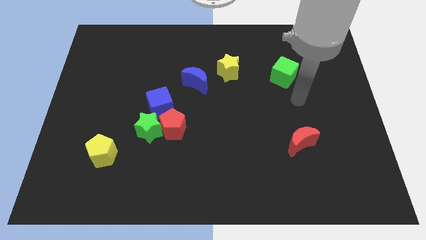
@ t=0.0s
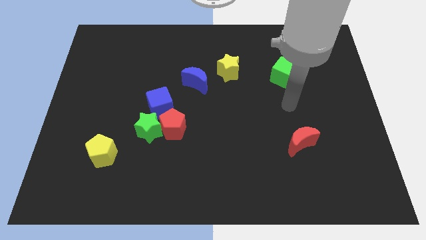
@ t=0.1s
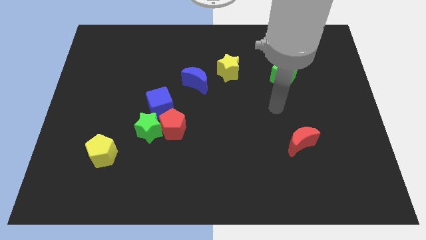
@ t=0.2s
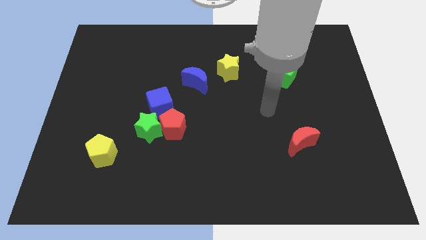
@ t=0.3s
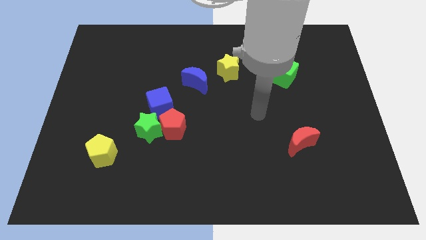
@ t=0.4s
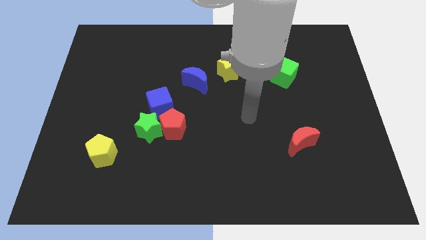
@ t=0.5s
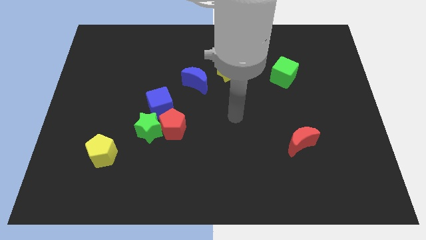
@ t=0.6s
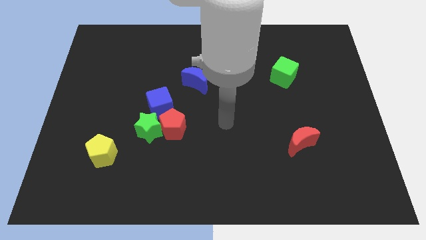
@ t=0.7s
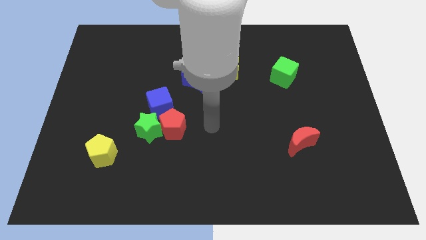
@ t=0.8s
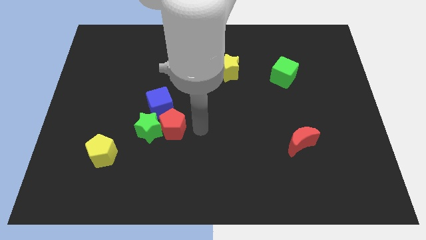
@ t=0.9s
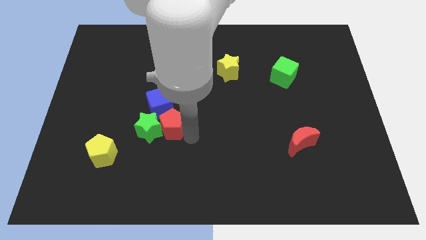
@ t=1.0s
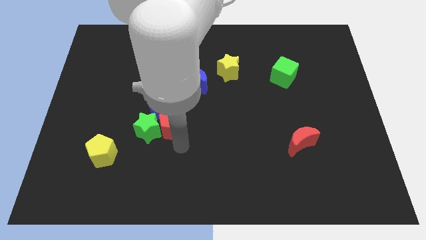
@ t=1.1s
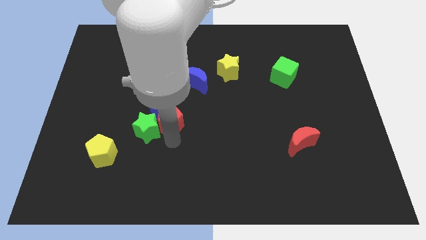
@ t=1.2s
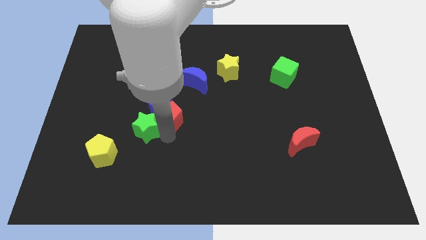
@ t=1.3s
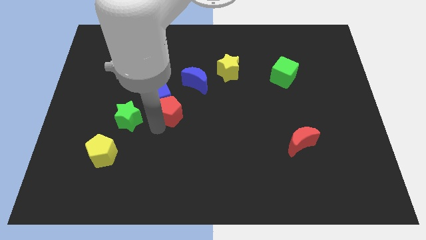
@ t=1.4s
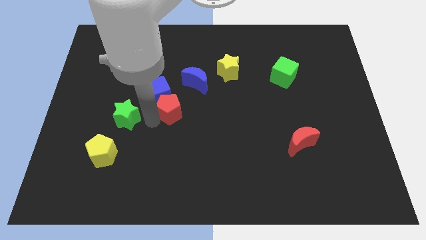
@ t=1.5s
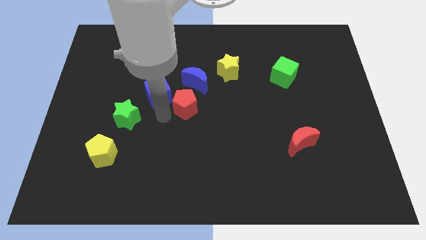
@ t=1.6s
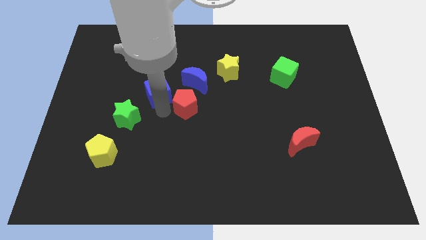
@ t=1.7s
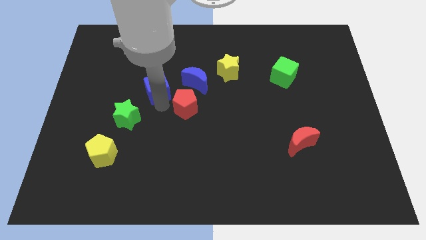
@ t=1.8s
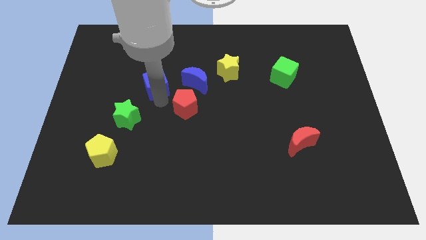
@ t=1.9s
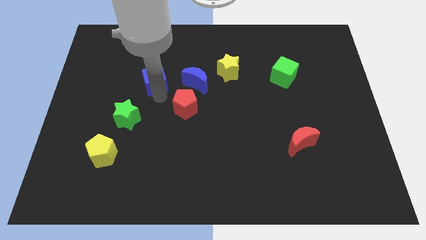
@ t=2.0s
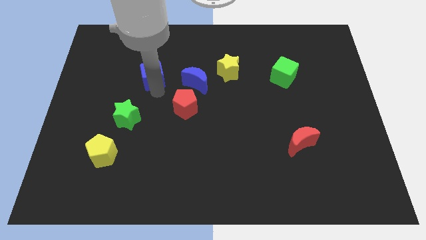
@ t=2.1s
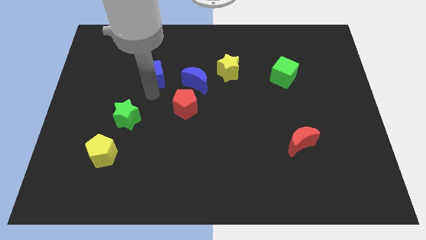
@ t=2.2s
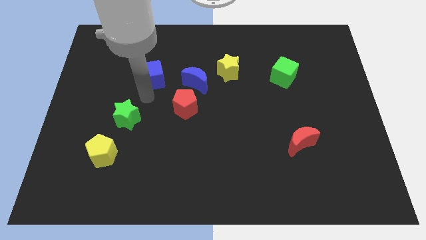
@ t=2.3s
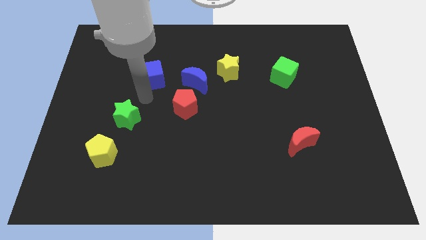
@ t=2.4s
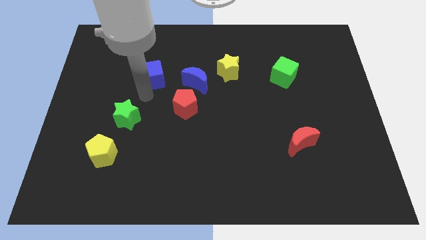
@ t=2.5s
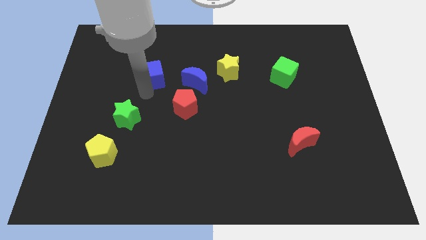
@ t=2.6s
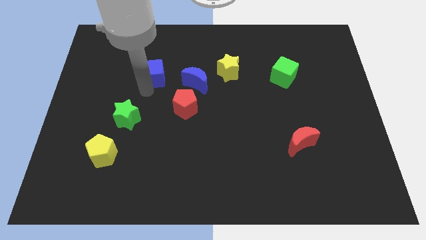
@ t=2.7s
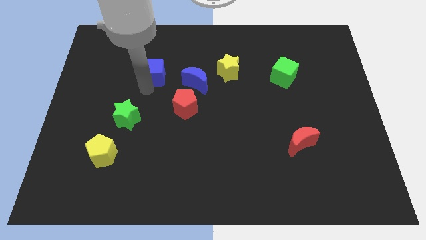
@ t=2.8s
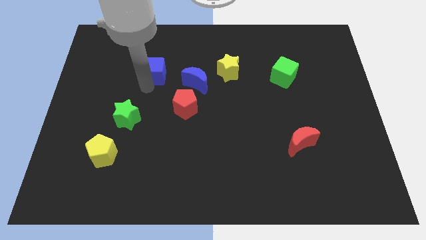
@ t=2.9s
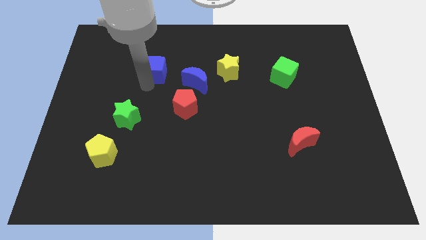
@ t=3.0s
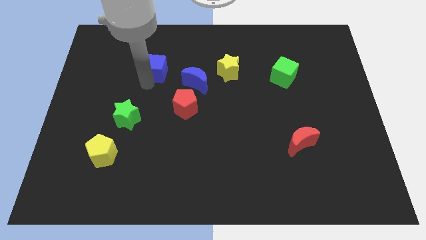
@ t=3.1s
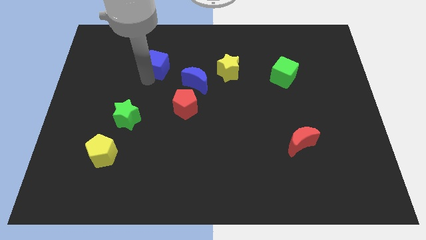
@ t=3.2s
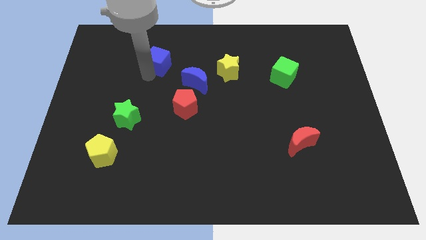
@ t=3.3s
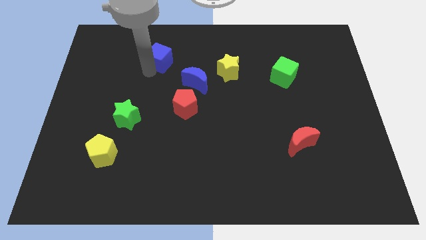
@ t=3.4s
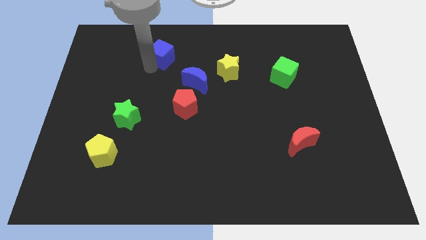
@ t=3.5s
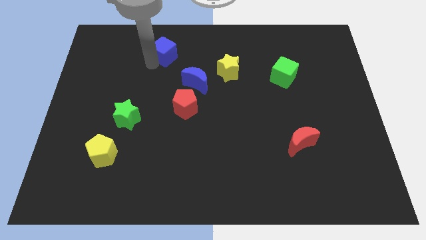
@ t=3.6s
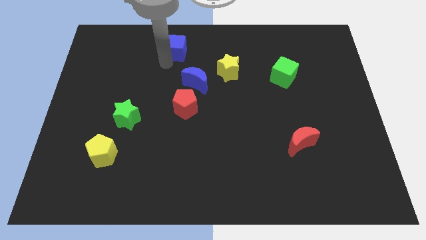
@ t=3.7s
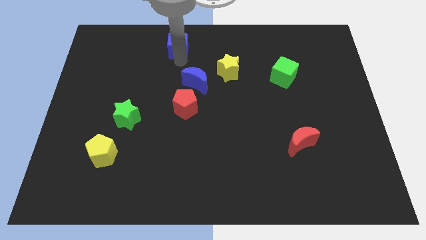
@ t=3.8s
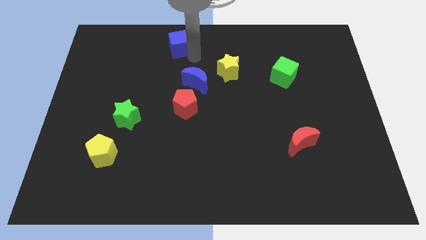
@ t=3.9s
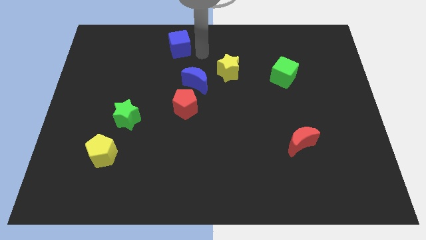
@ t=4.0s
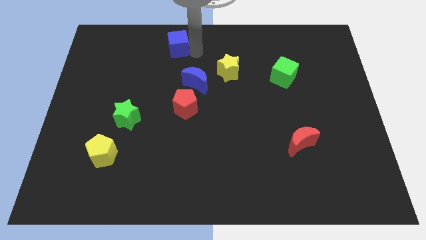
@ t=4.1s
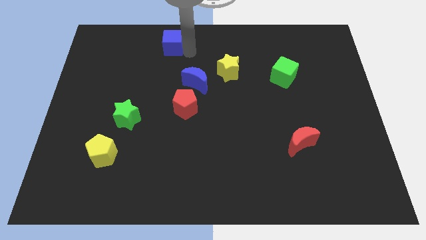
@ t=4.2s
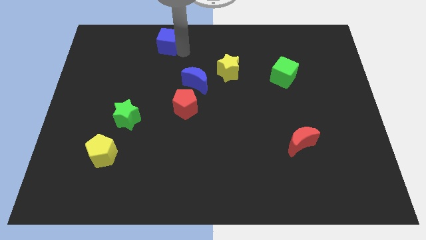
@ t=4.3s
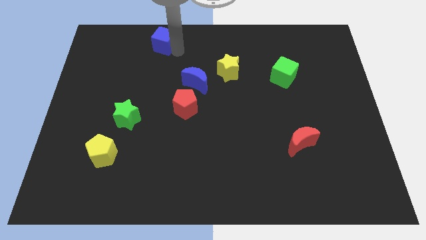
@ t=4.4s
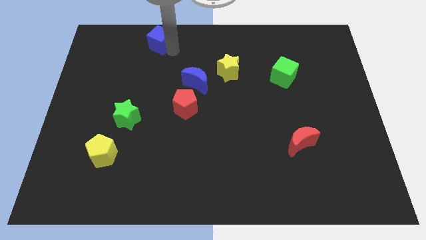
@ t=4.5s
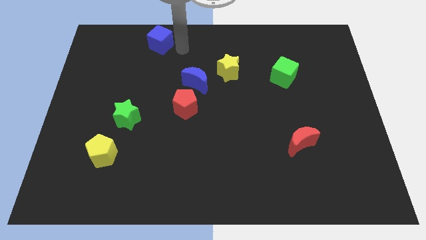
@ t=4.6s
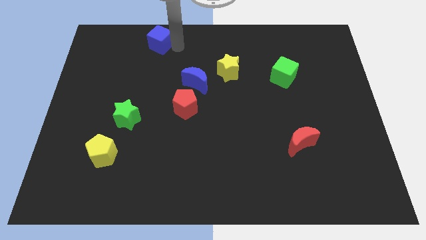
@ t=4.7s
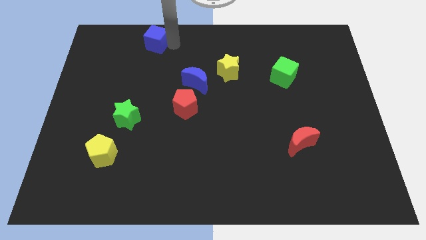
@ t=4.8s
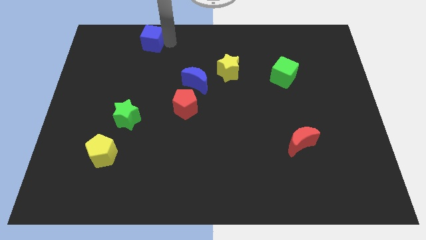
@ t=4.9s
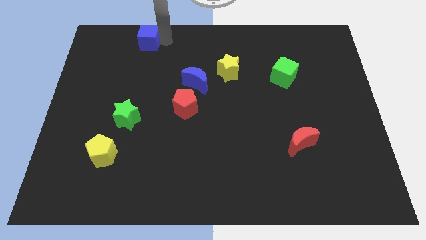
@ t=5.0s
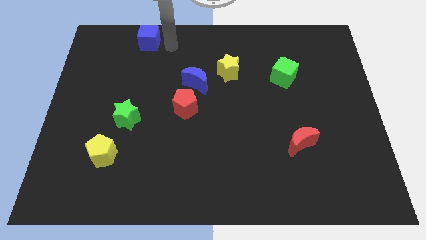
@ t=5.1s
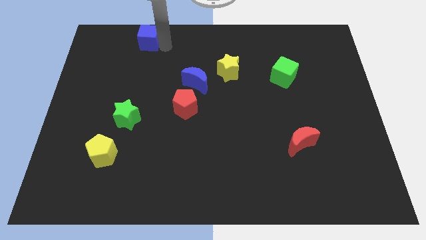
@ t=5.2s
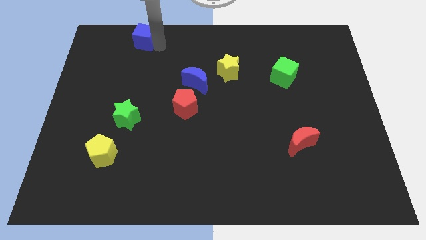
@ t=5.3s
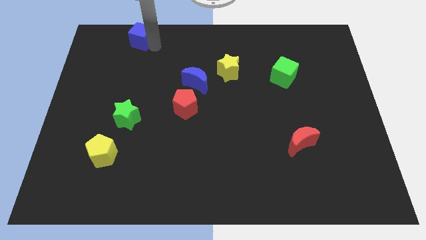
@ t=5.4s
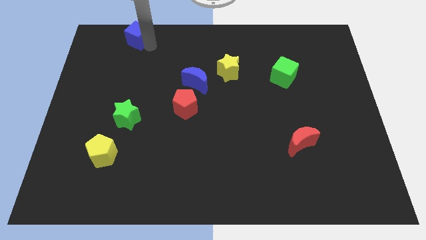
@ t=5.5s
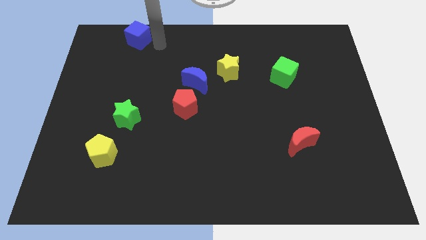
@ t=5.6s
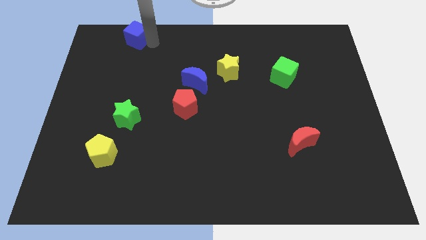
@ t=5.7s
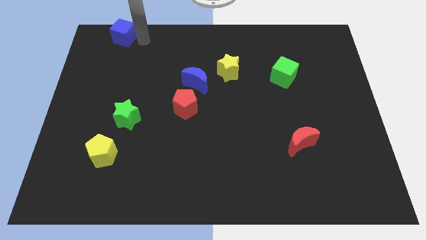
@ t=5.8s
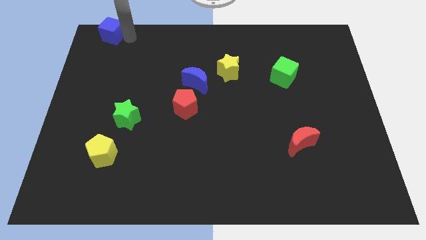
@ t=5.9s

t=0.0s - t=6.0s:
put the blue cube to the top left corner
